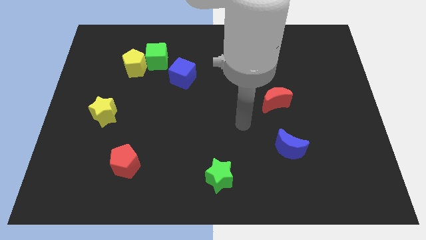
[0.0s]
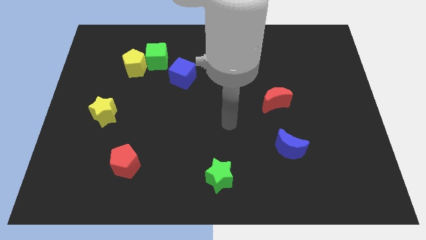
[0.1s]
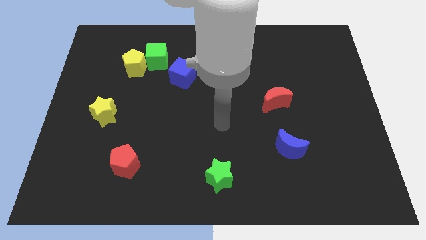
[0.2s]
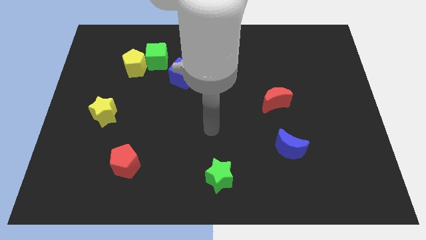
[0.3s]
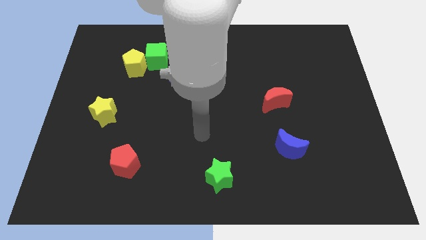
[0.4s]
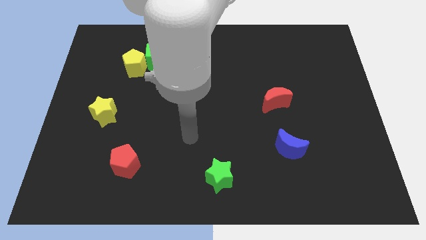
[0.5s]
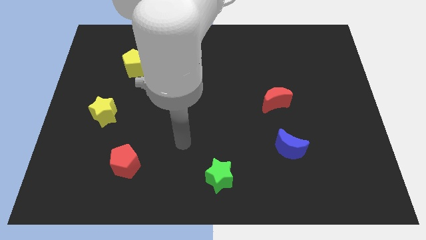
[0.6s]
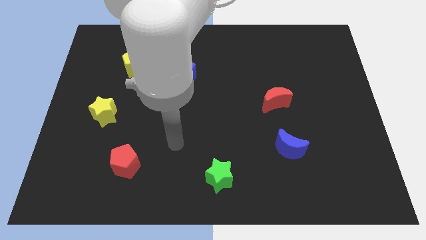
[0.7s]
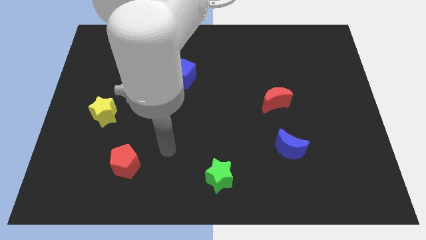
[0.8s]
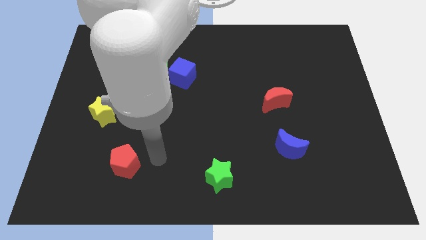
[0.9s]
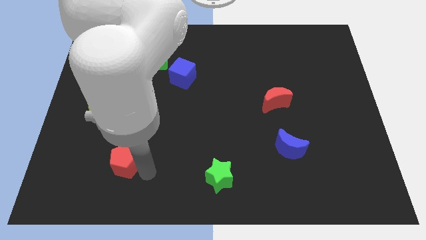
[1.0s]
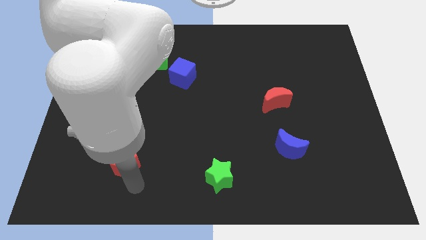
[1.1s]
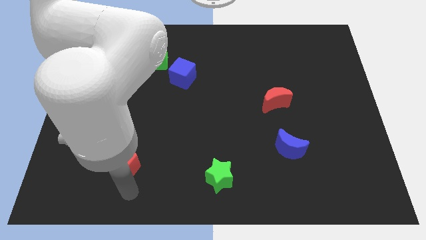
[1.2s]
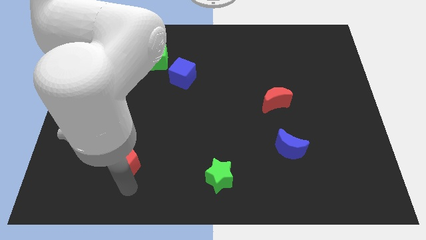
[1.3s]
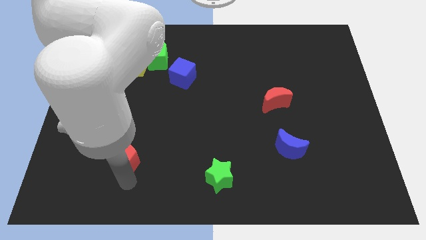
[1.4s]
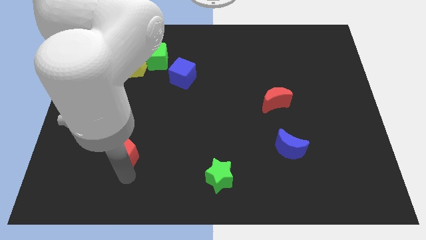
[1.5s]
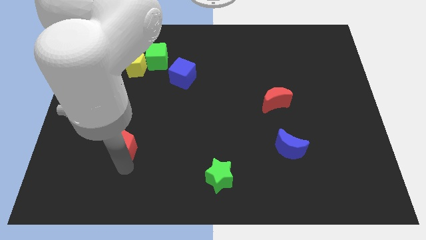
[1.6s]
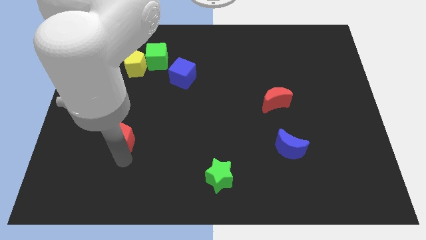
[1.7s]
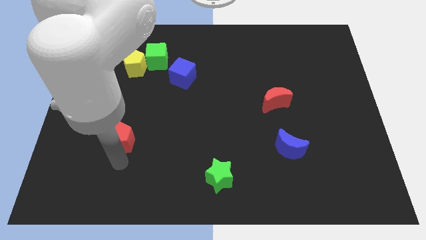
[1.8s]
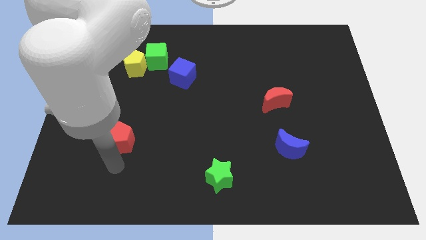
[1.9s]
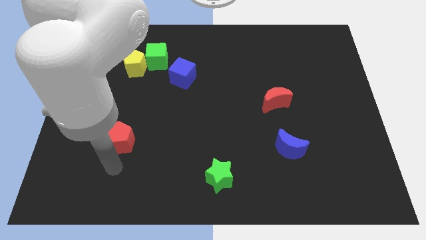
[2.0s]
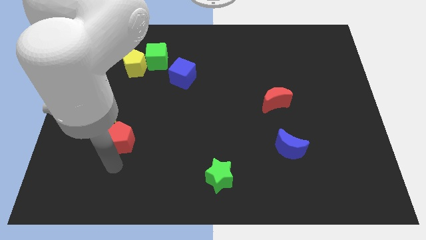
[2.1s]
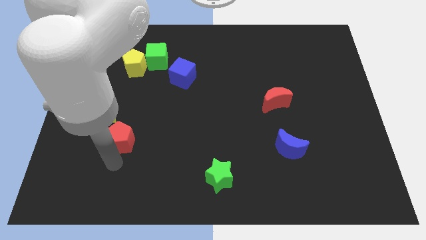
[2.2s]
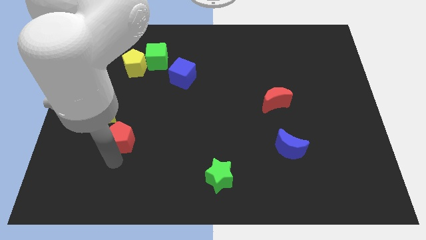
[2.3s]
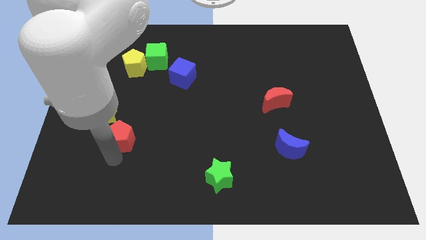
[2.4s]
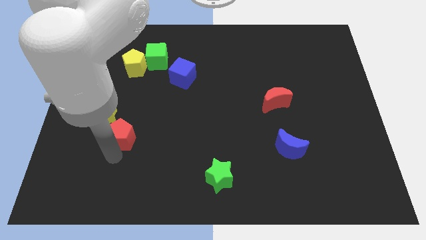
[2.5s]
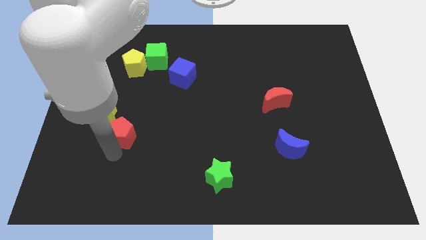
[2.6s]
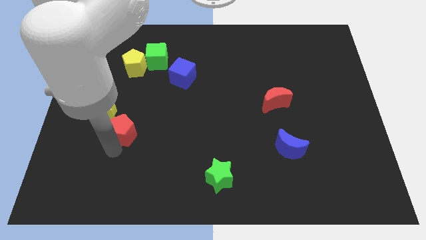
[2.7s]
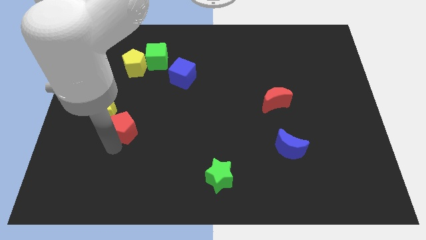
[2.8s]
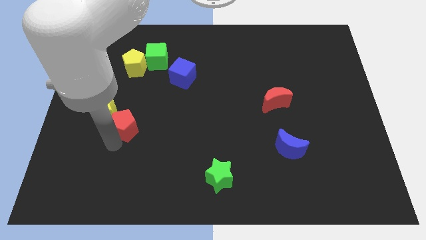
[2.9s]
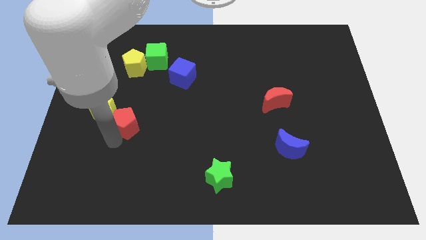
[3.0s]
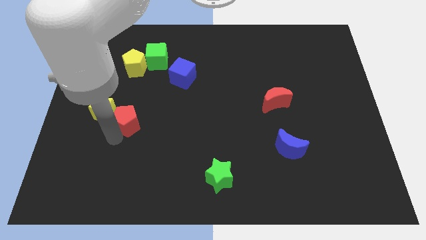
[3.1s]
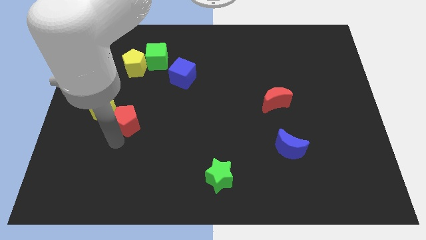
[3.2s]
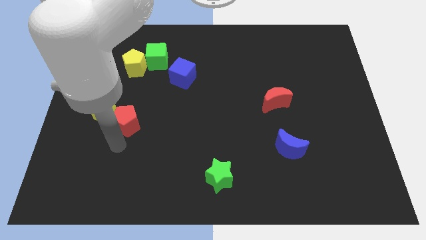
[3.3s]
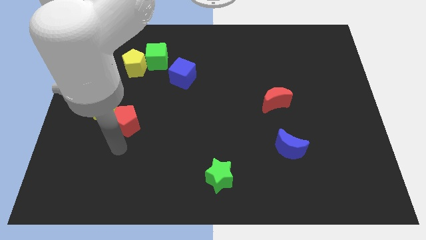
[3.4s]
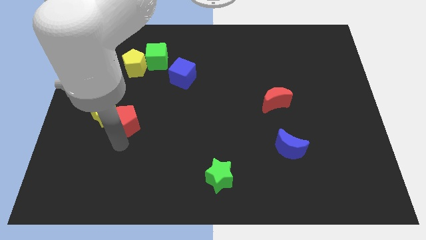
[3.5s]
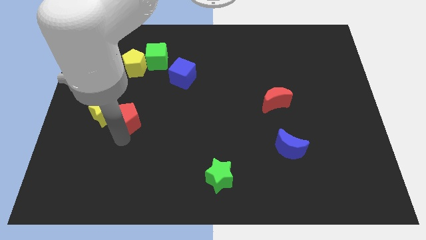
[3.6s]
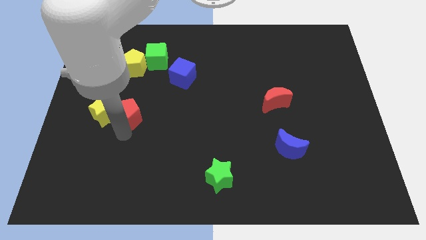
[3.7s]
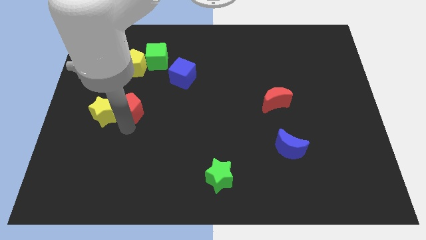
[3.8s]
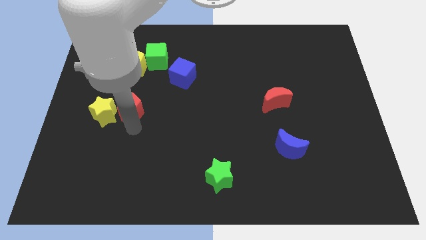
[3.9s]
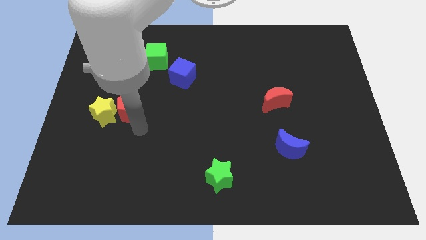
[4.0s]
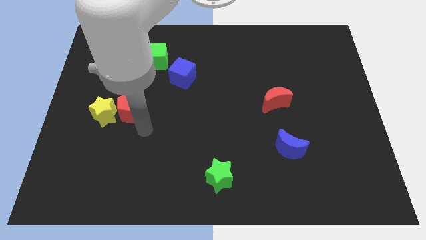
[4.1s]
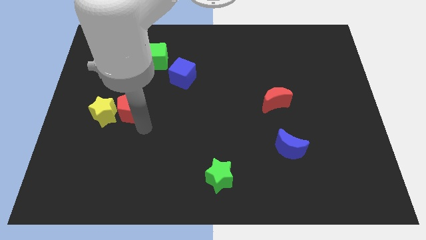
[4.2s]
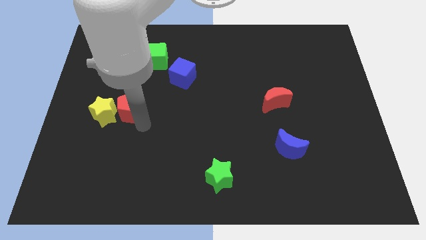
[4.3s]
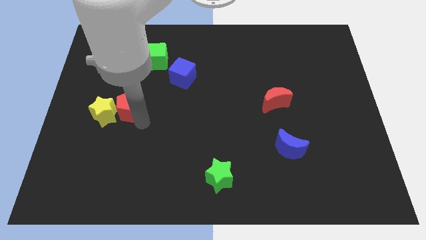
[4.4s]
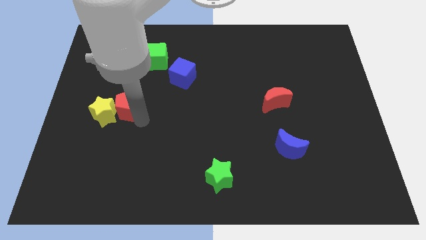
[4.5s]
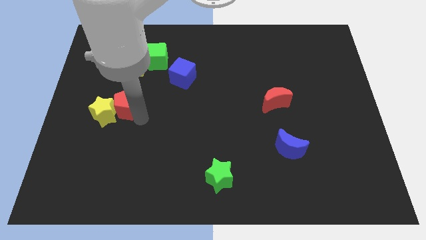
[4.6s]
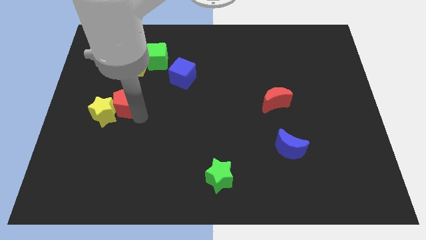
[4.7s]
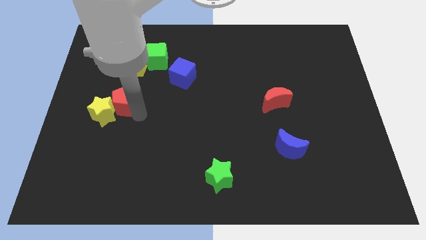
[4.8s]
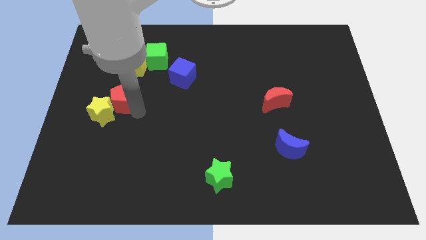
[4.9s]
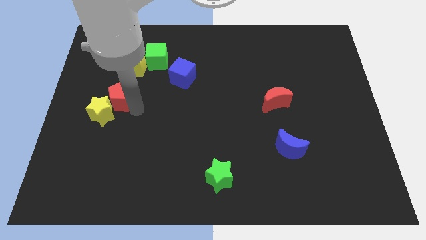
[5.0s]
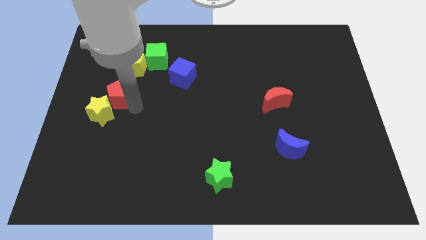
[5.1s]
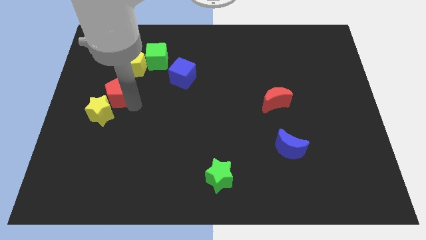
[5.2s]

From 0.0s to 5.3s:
move the red pentagon to the bottom left of the yellow pentagon
